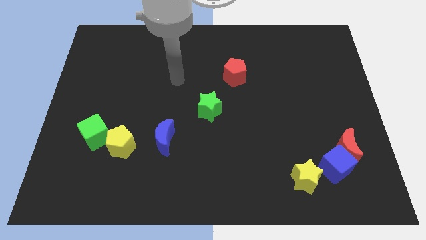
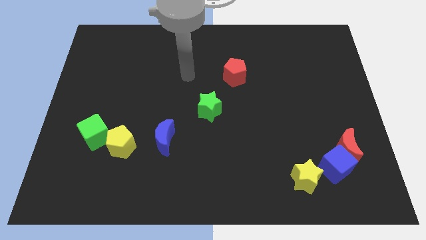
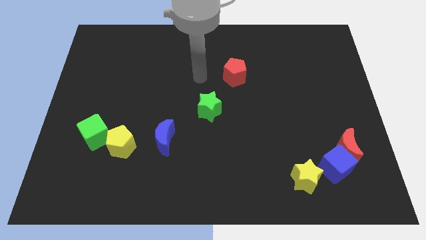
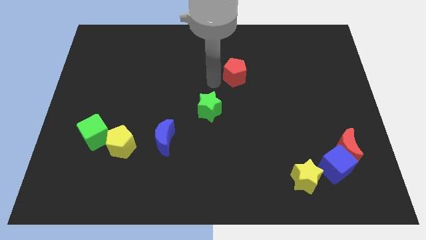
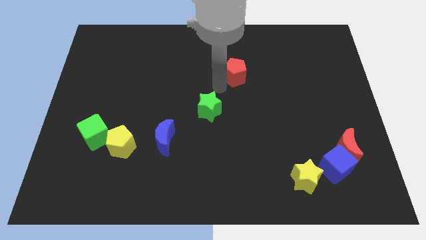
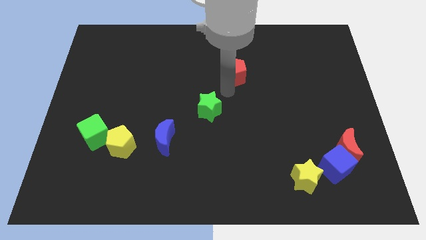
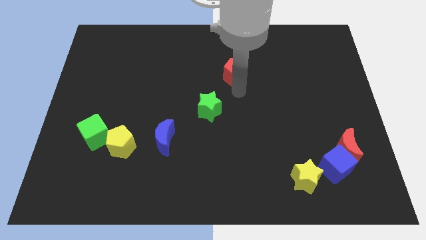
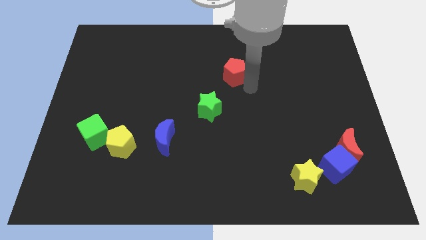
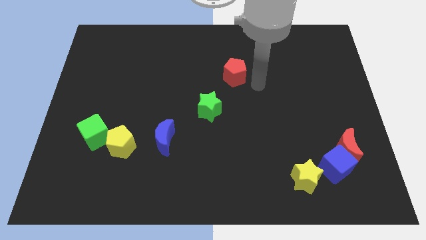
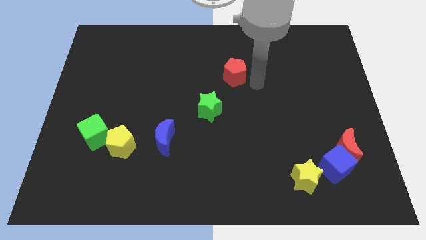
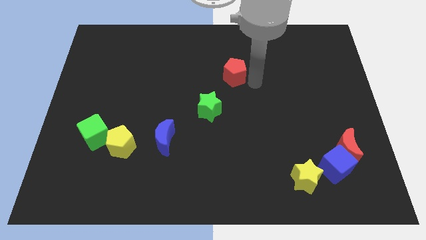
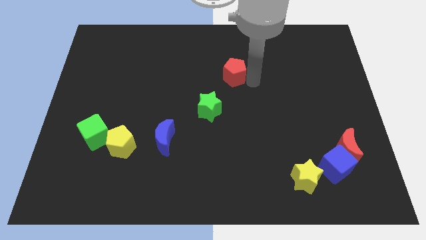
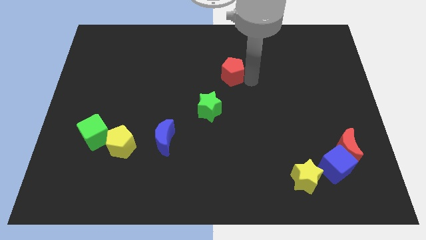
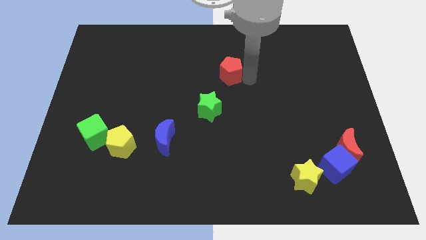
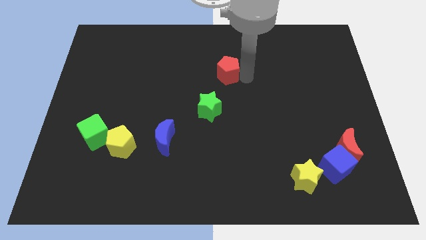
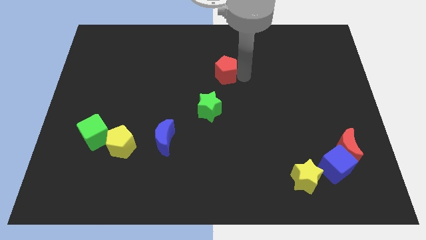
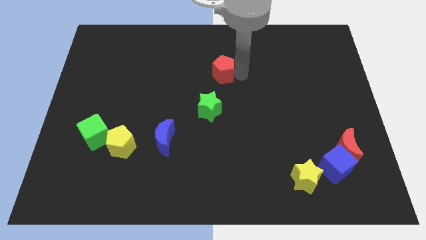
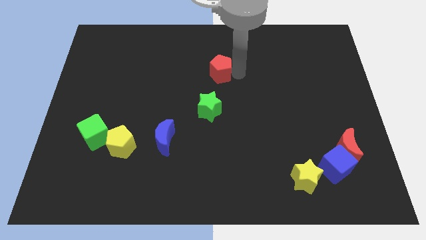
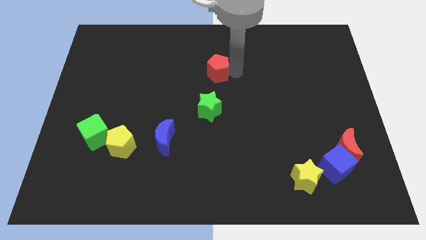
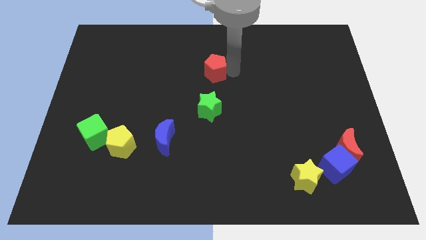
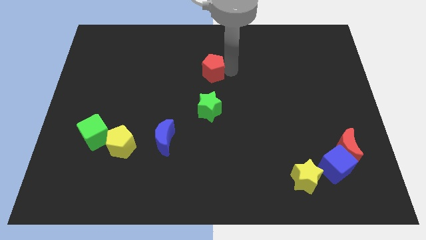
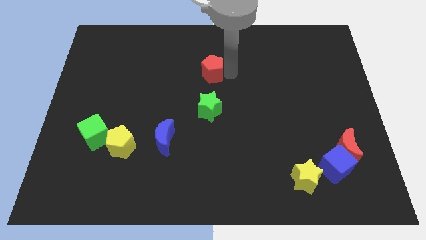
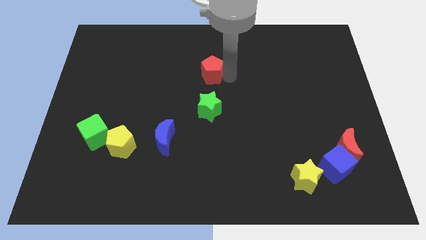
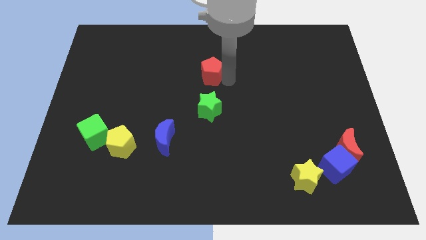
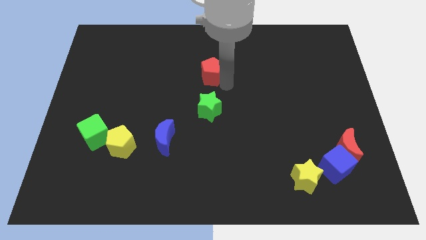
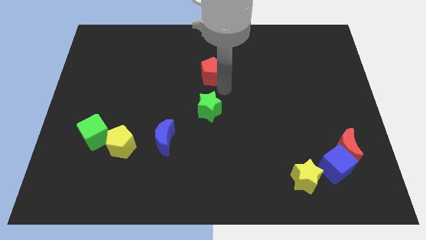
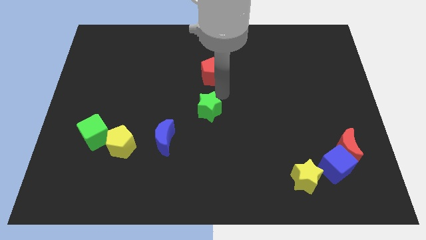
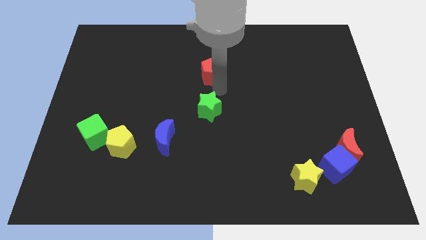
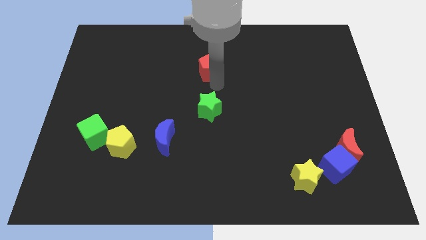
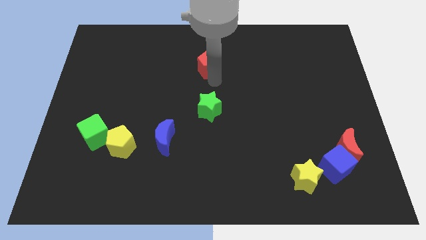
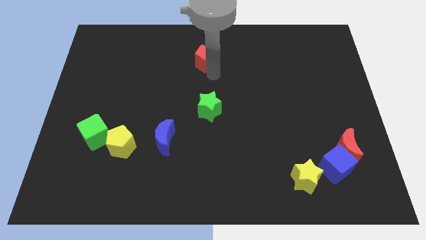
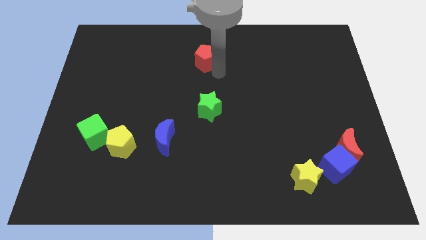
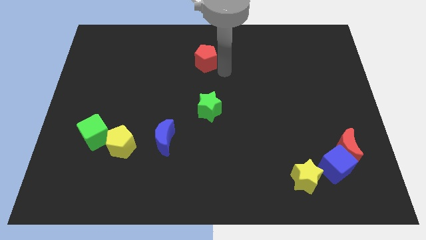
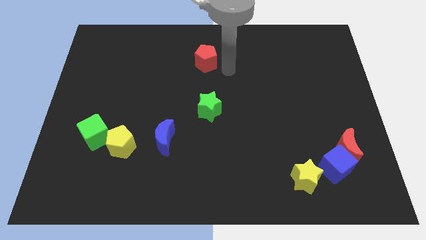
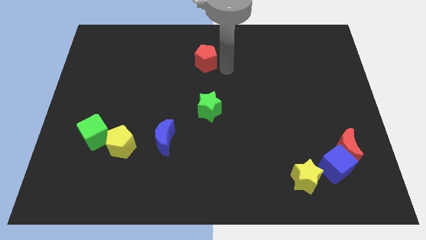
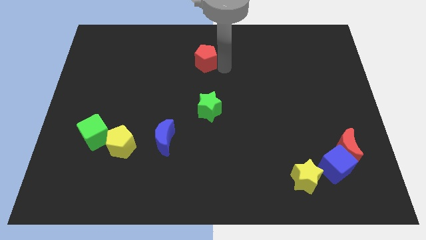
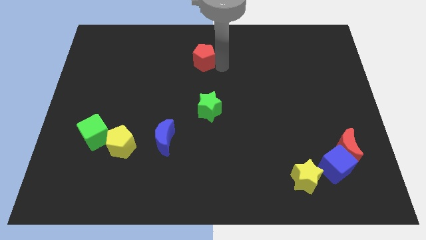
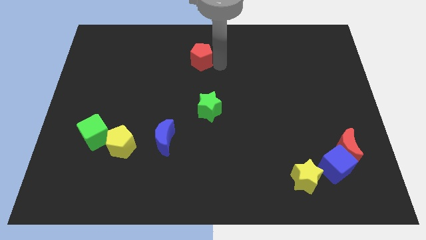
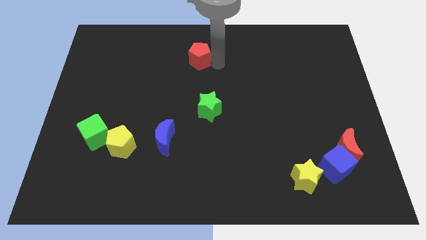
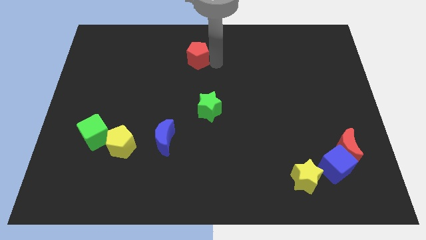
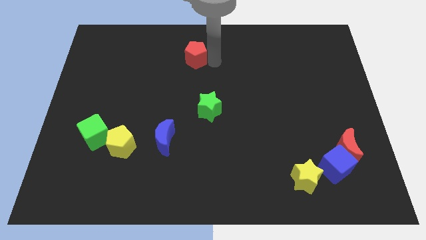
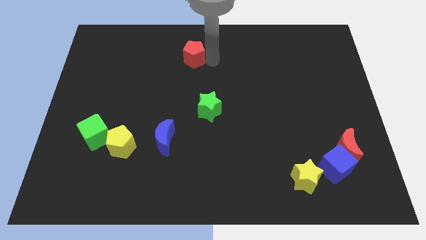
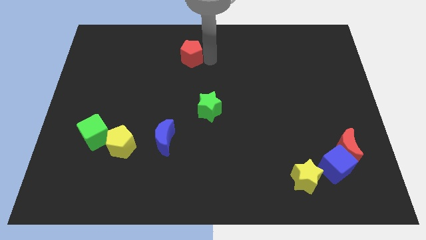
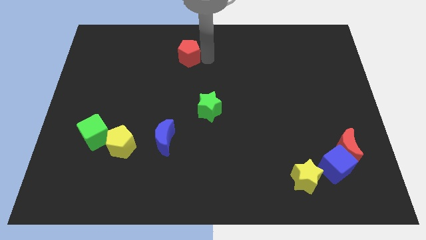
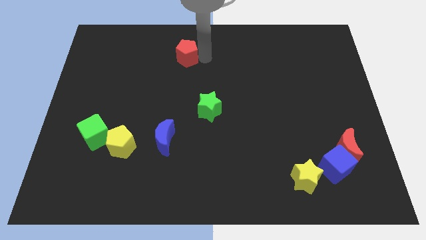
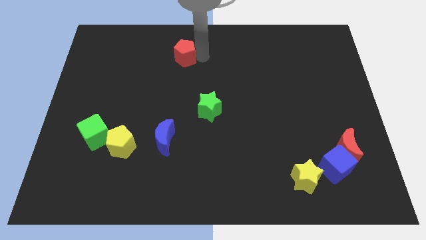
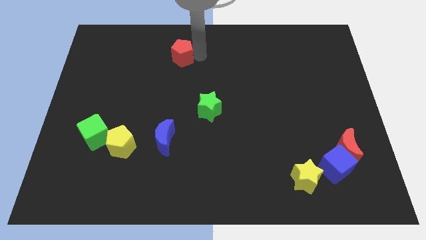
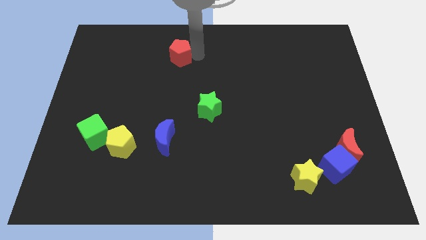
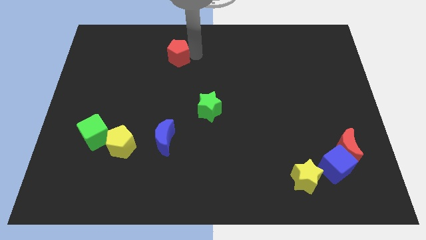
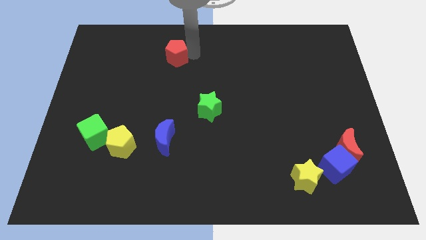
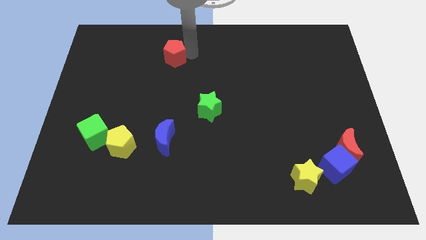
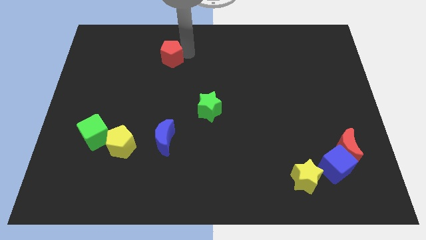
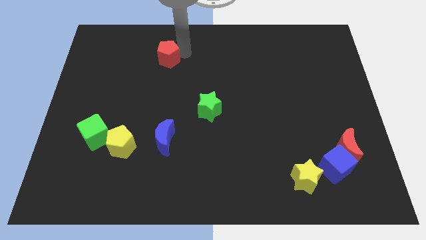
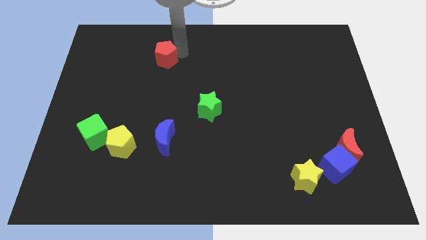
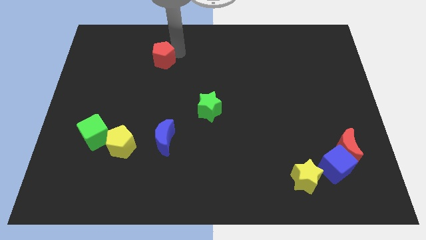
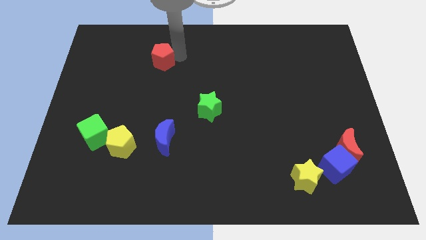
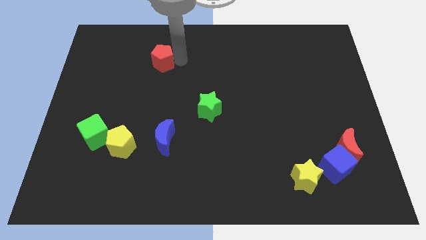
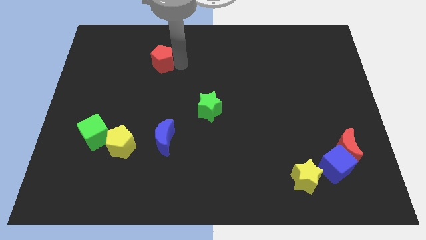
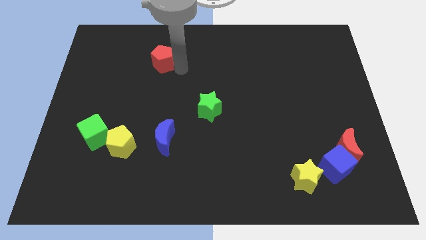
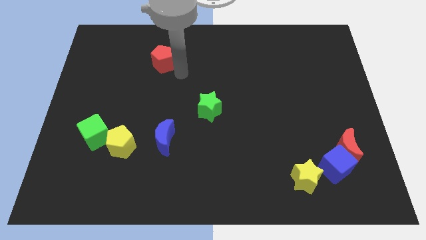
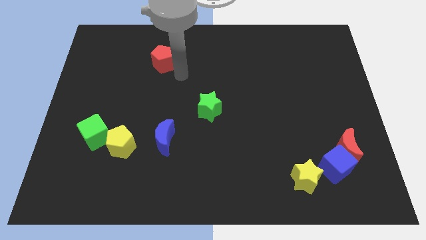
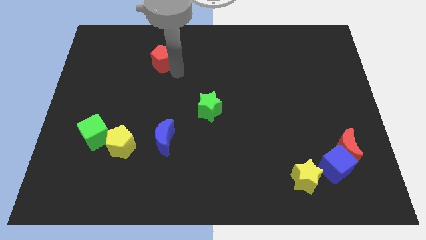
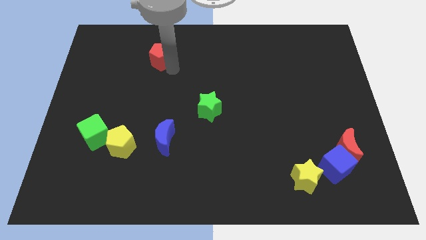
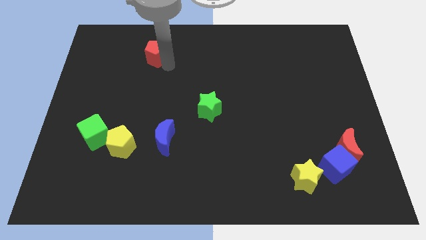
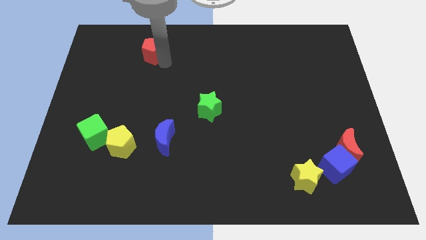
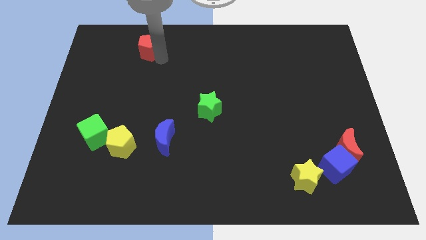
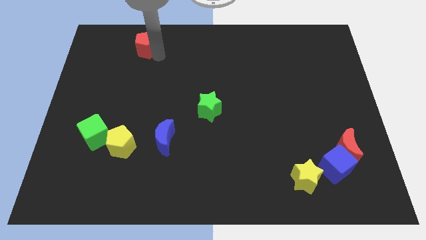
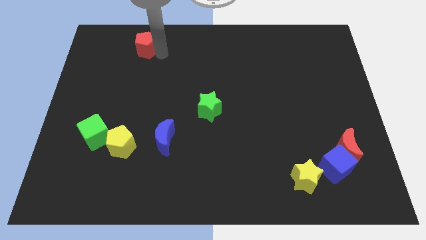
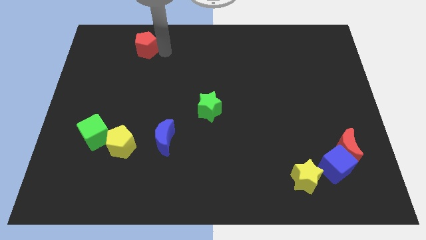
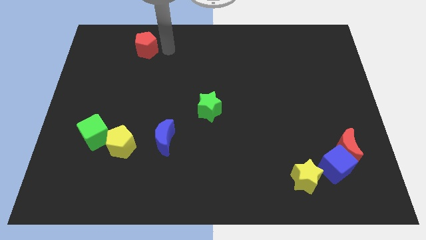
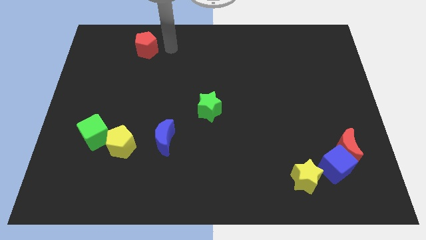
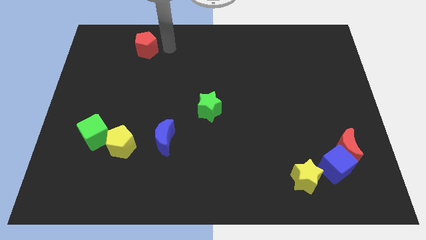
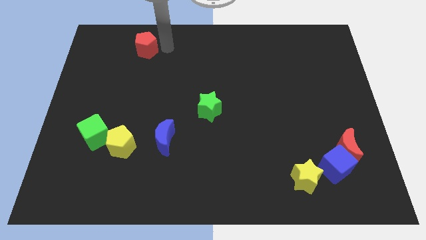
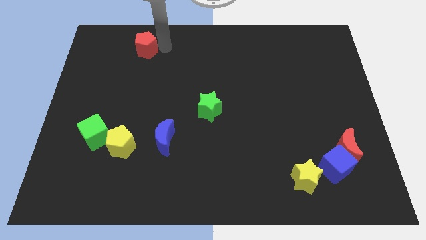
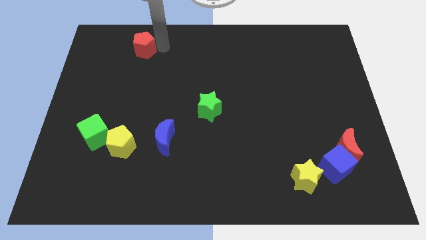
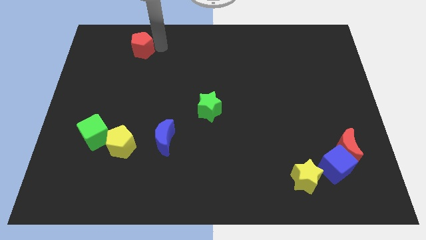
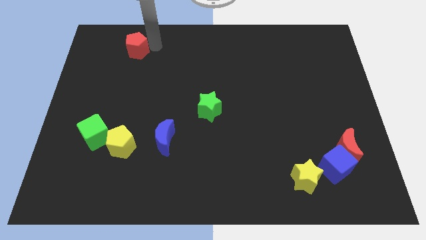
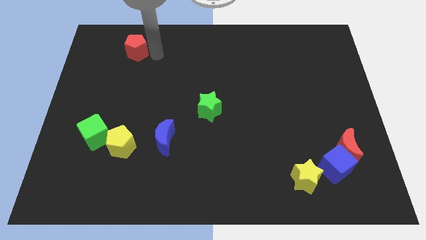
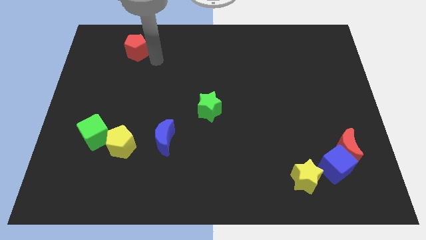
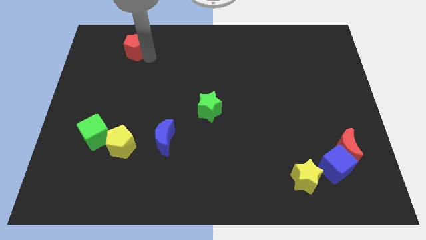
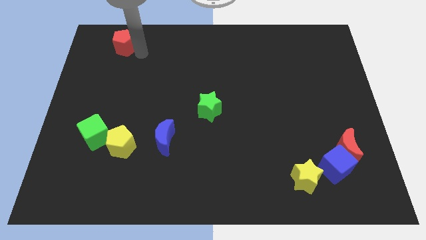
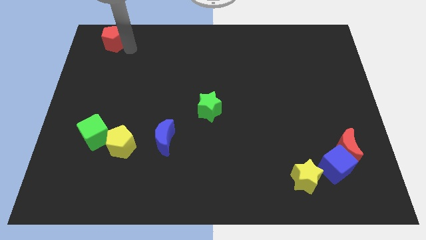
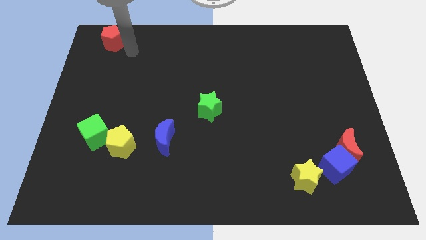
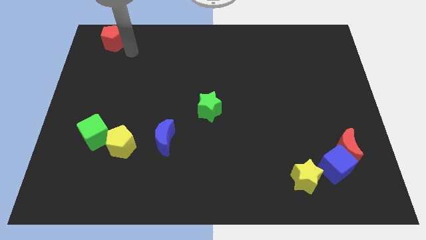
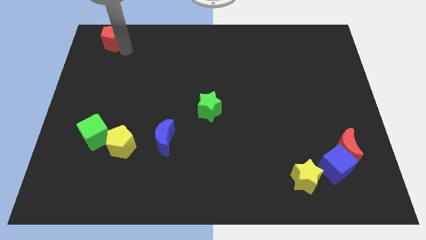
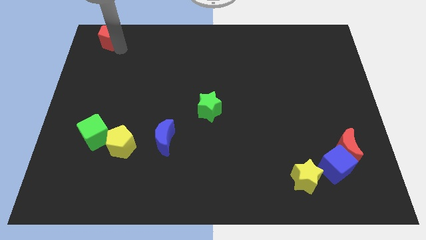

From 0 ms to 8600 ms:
move the red pentagon to the top left
